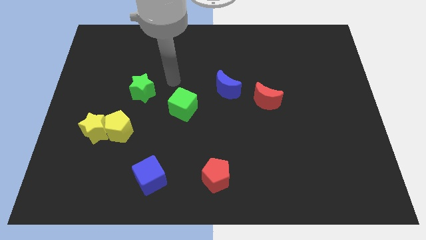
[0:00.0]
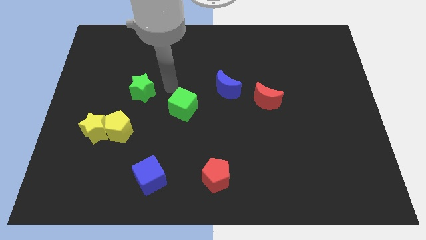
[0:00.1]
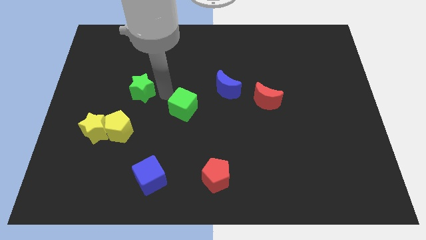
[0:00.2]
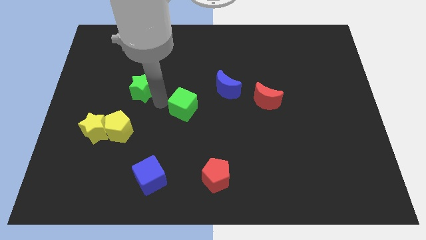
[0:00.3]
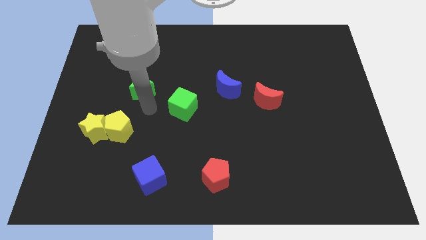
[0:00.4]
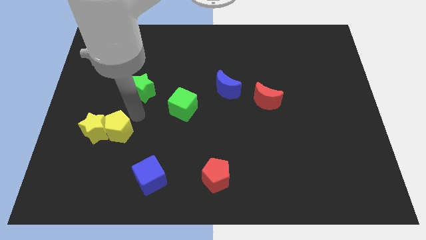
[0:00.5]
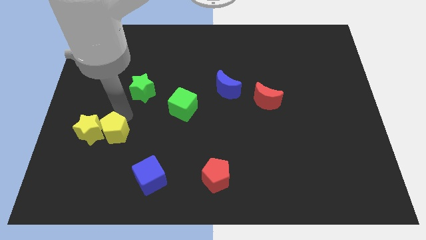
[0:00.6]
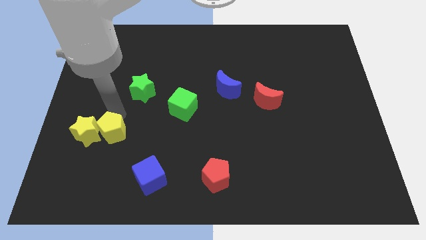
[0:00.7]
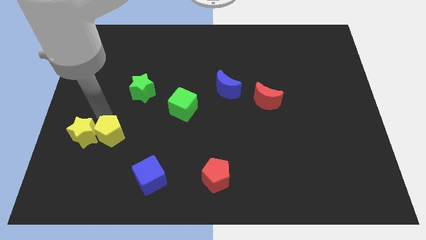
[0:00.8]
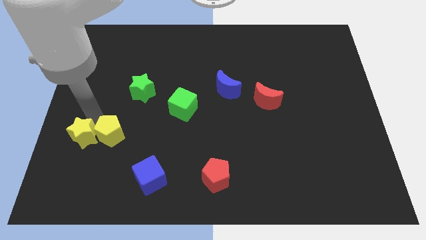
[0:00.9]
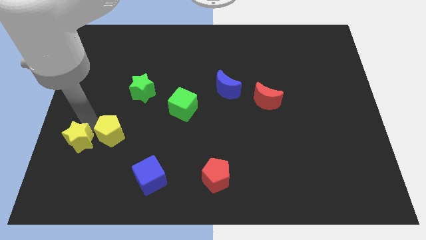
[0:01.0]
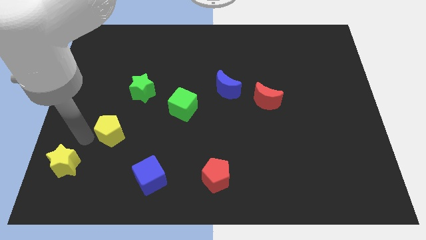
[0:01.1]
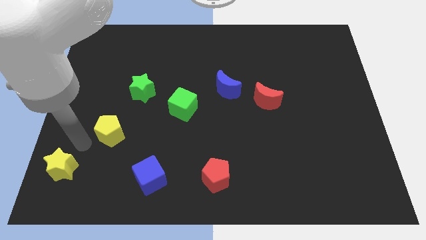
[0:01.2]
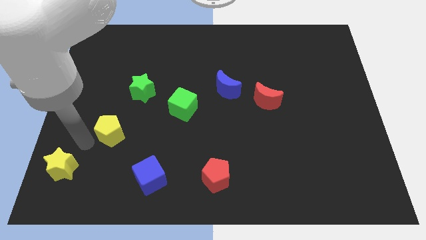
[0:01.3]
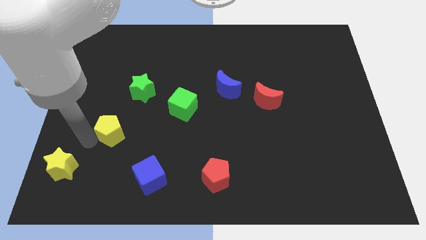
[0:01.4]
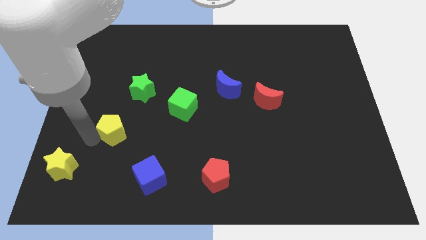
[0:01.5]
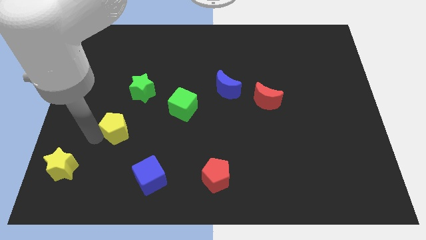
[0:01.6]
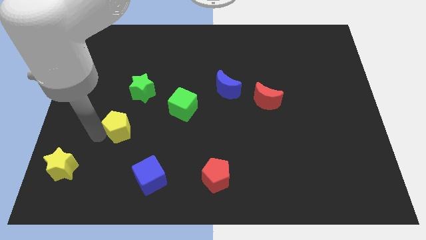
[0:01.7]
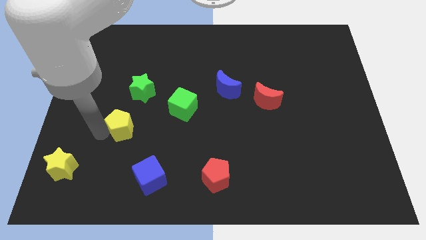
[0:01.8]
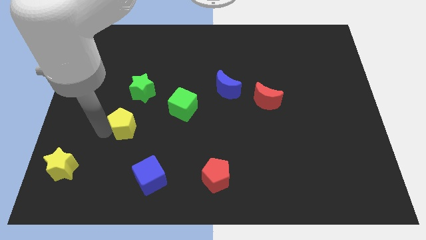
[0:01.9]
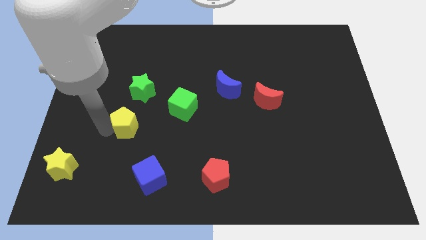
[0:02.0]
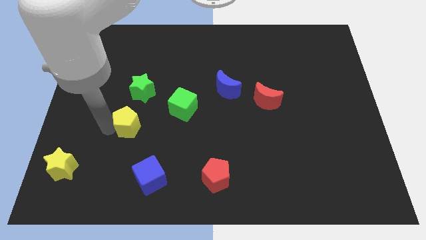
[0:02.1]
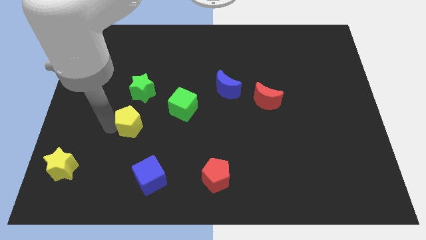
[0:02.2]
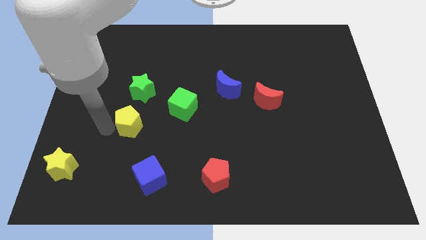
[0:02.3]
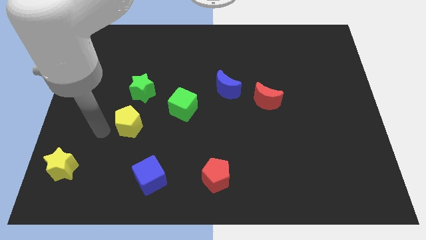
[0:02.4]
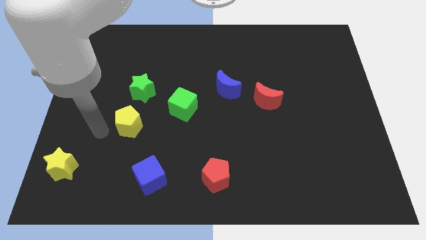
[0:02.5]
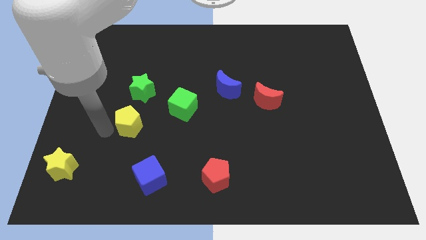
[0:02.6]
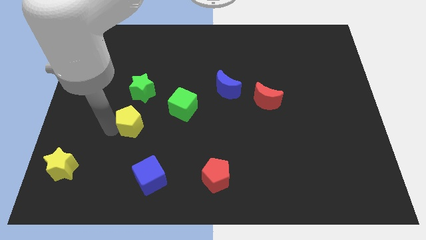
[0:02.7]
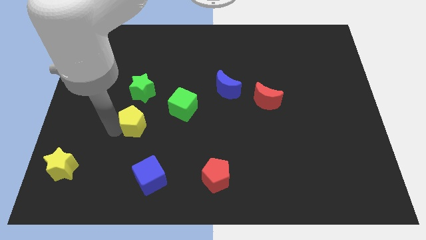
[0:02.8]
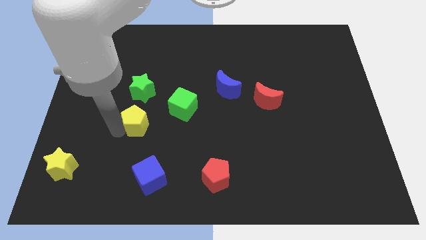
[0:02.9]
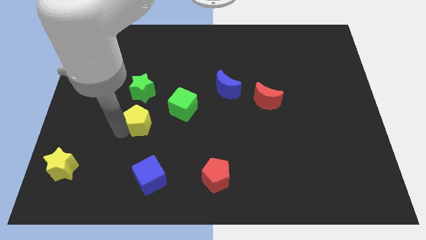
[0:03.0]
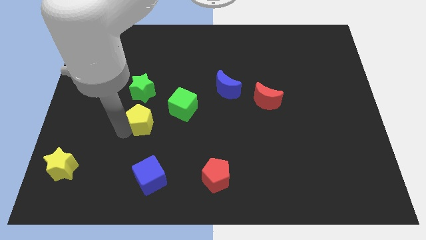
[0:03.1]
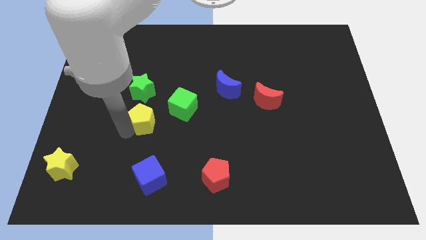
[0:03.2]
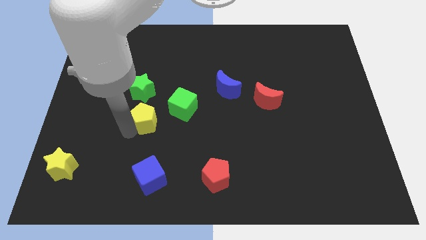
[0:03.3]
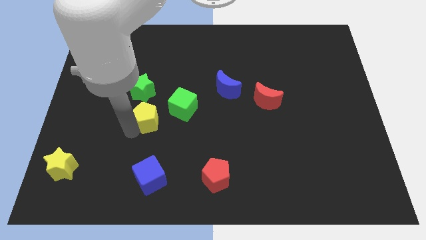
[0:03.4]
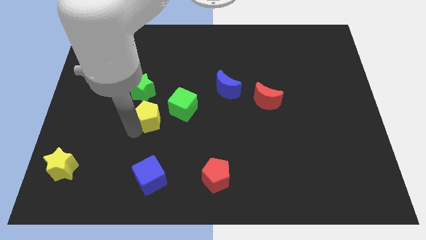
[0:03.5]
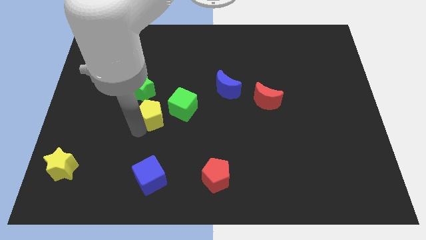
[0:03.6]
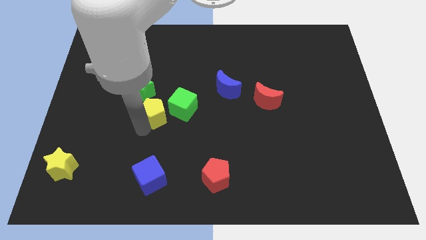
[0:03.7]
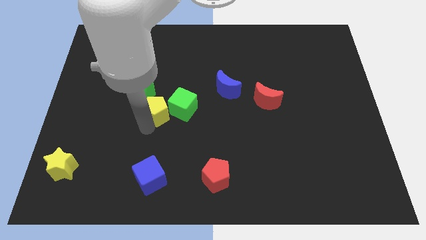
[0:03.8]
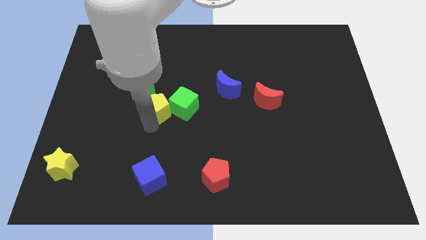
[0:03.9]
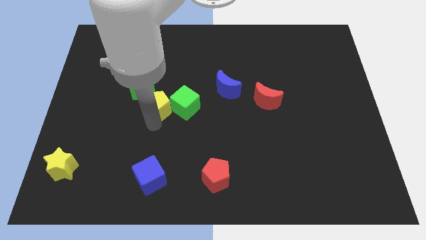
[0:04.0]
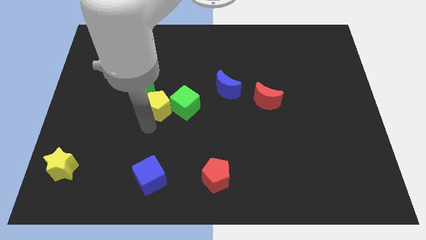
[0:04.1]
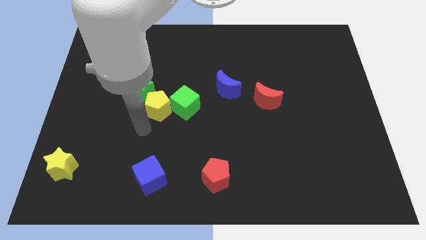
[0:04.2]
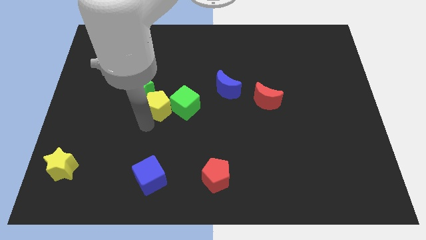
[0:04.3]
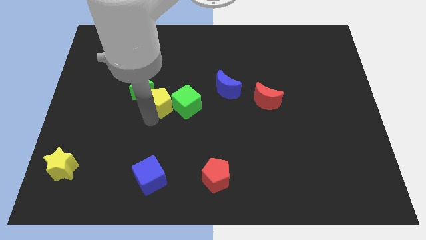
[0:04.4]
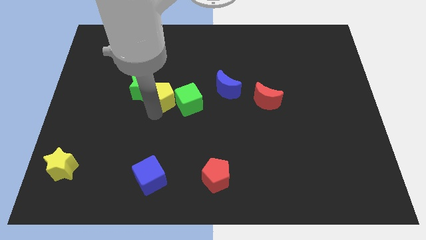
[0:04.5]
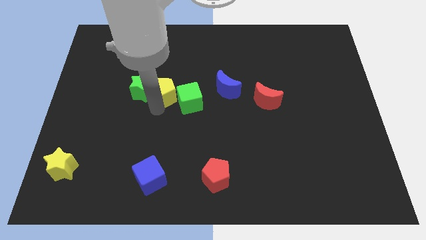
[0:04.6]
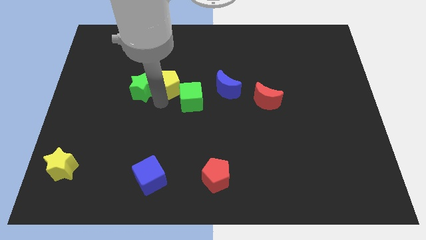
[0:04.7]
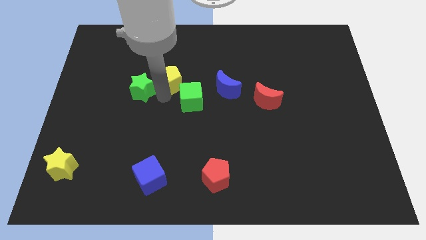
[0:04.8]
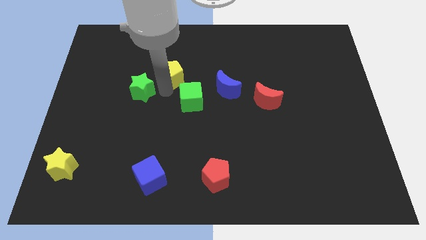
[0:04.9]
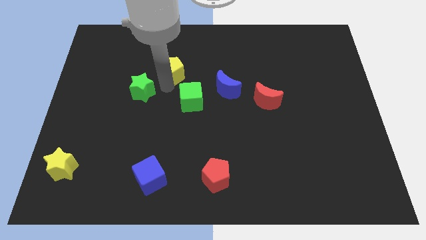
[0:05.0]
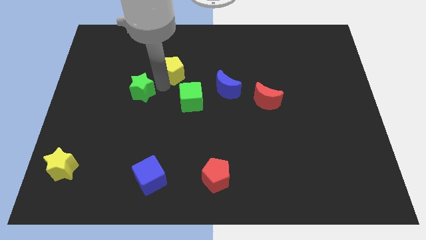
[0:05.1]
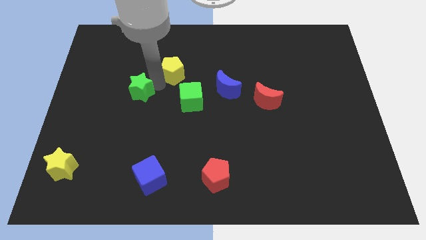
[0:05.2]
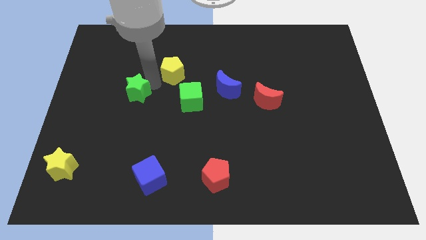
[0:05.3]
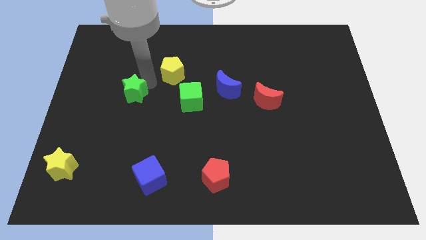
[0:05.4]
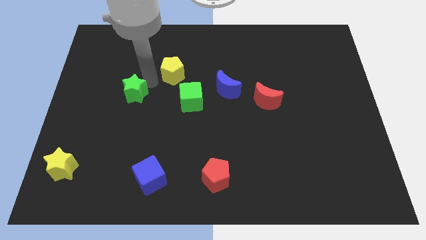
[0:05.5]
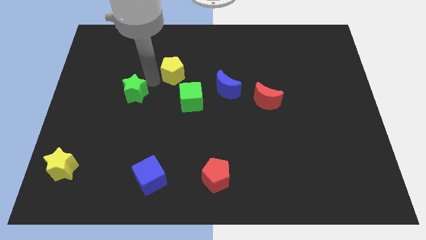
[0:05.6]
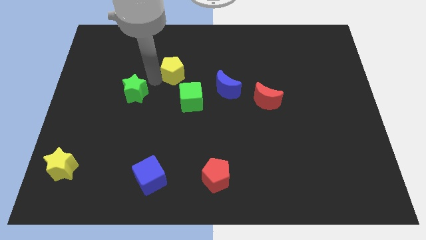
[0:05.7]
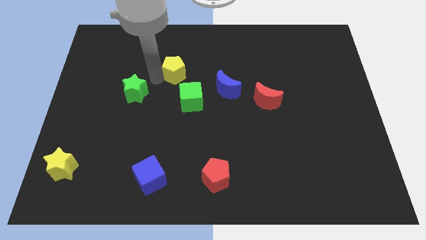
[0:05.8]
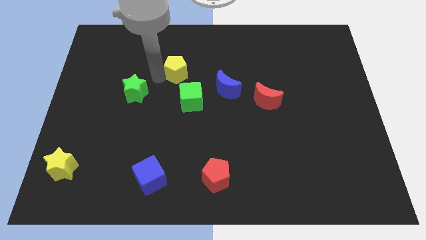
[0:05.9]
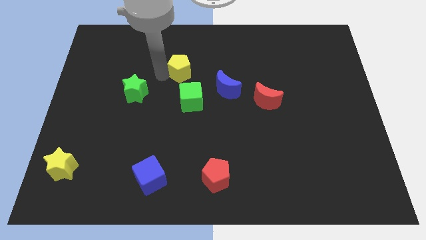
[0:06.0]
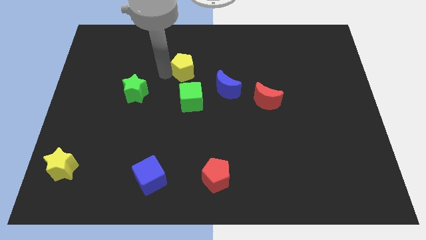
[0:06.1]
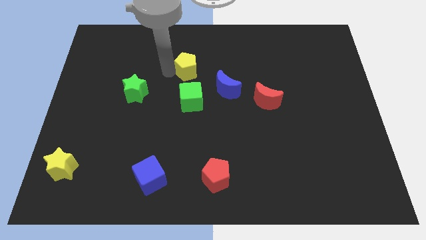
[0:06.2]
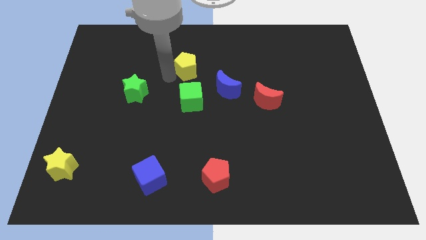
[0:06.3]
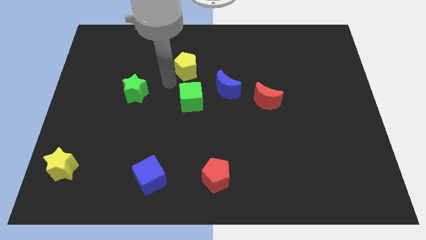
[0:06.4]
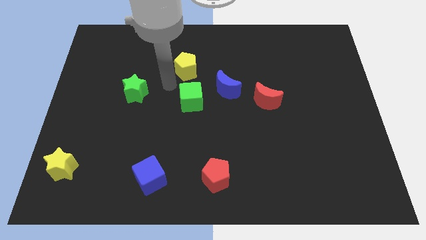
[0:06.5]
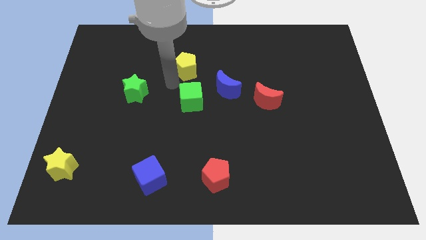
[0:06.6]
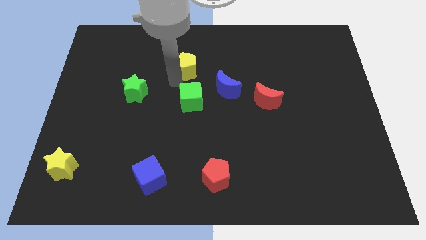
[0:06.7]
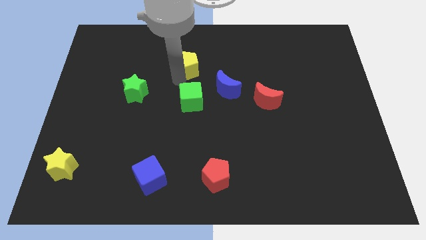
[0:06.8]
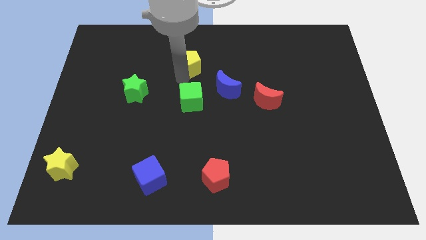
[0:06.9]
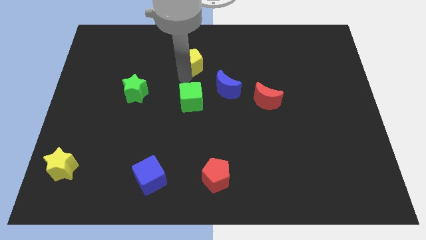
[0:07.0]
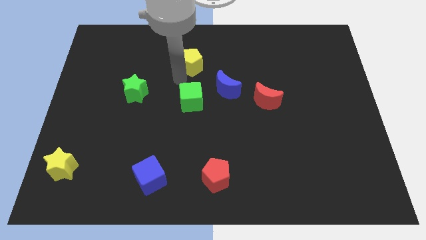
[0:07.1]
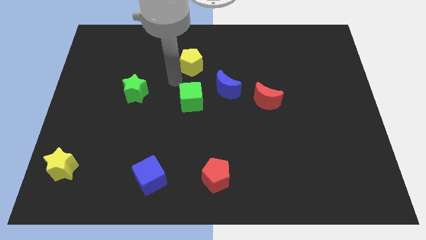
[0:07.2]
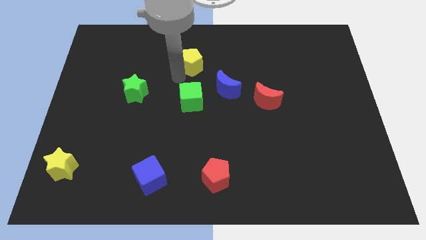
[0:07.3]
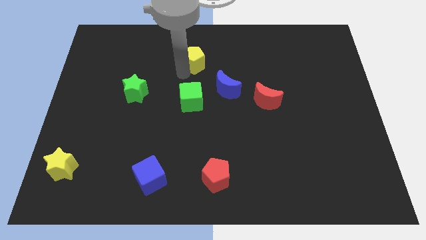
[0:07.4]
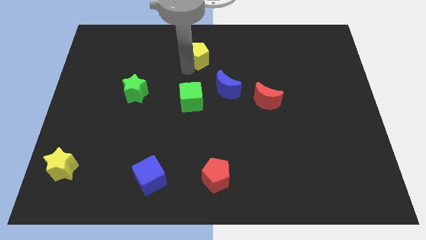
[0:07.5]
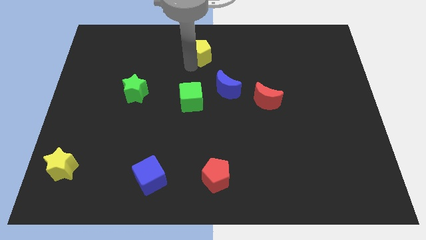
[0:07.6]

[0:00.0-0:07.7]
move the yellow pentagon to the top
